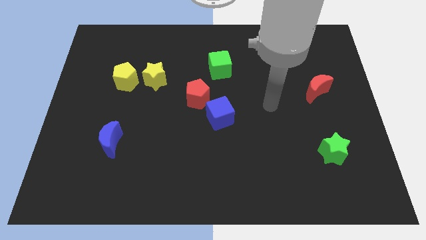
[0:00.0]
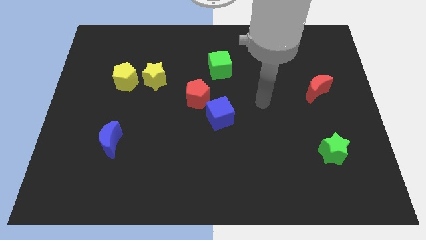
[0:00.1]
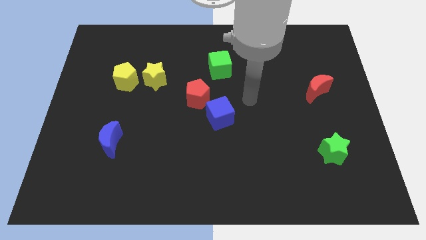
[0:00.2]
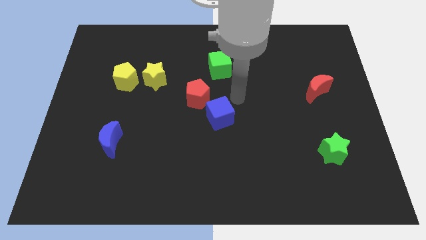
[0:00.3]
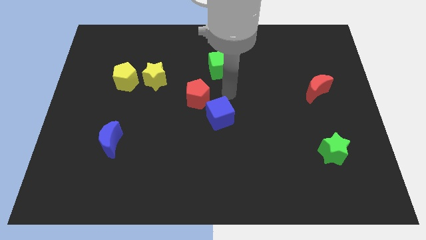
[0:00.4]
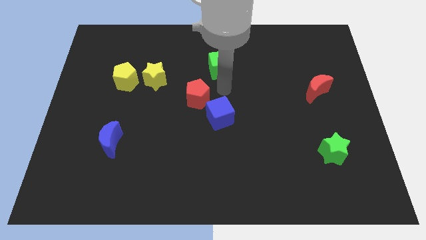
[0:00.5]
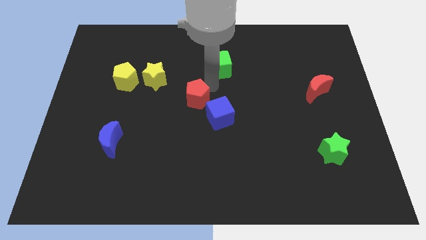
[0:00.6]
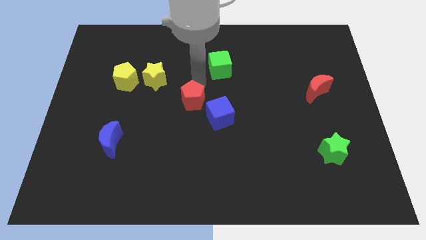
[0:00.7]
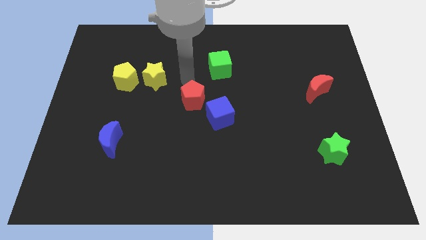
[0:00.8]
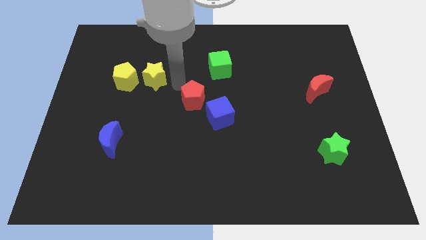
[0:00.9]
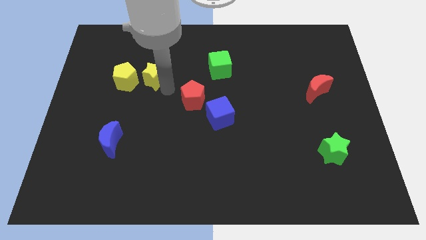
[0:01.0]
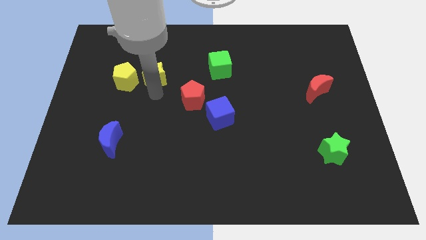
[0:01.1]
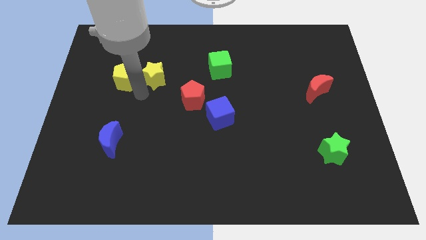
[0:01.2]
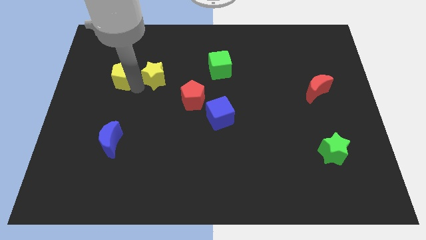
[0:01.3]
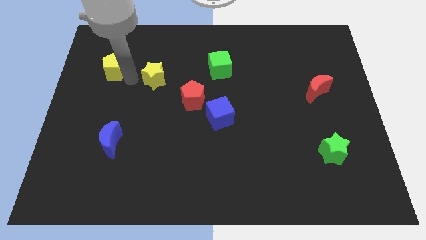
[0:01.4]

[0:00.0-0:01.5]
pull the yellow star apart from the yellow pentagon

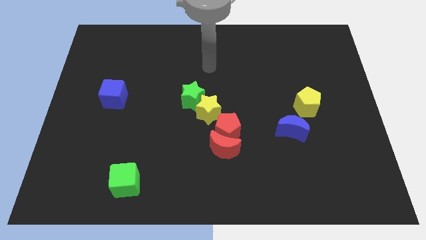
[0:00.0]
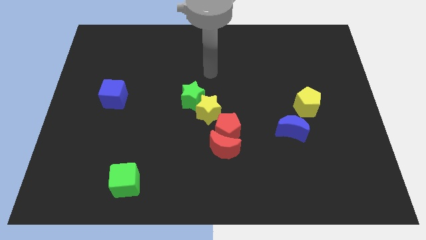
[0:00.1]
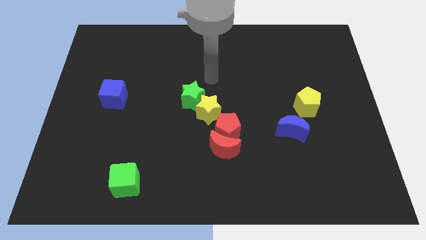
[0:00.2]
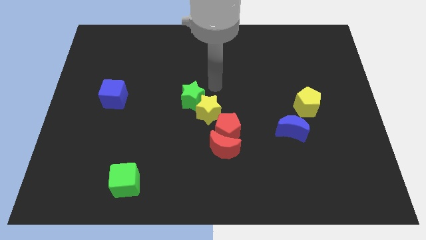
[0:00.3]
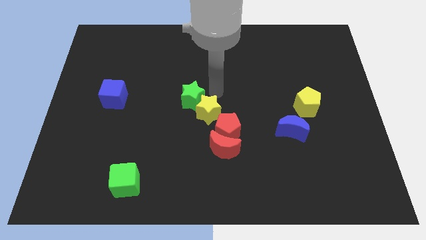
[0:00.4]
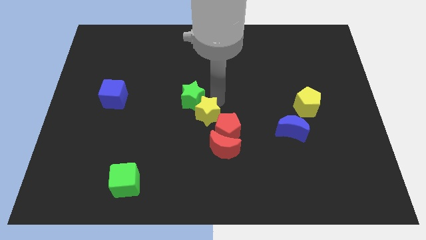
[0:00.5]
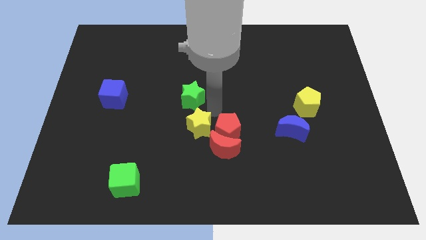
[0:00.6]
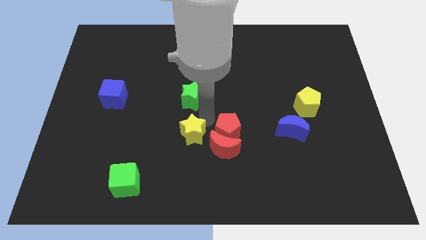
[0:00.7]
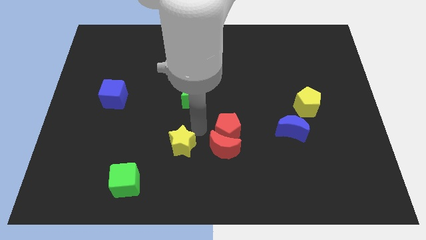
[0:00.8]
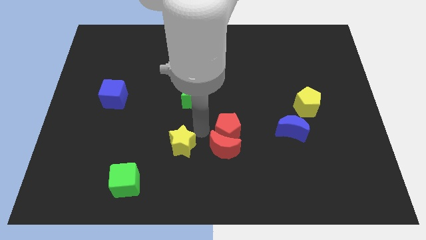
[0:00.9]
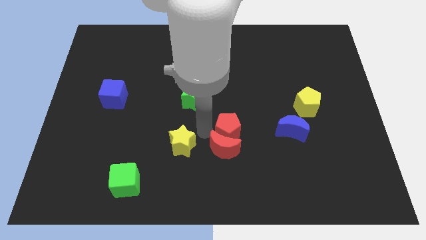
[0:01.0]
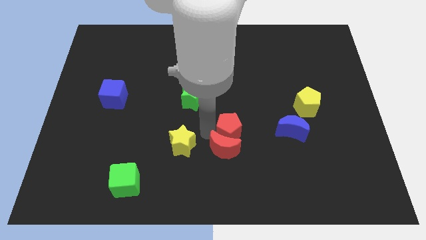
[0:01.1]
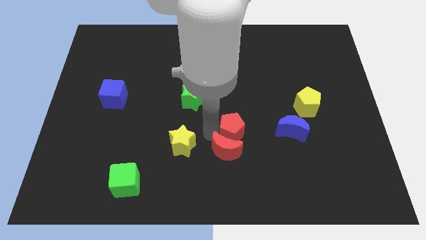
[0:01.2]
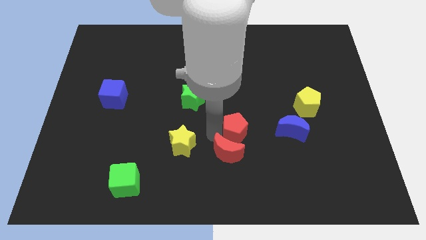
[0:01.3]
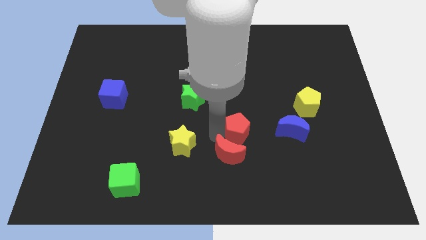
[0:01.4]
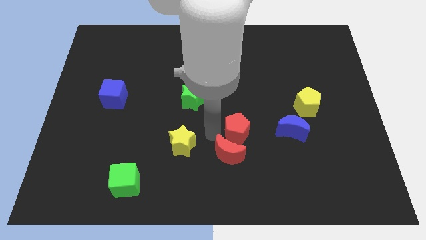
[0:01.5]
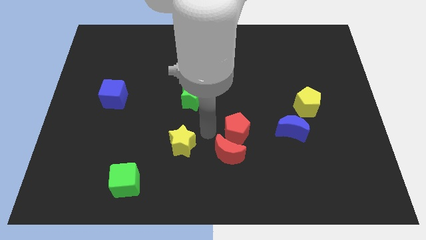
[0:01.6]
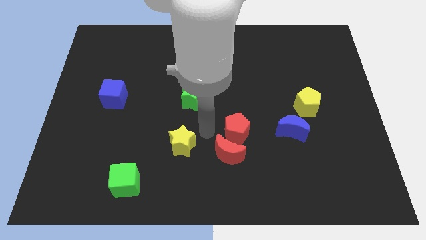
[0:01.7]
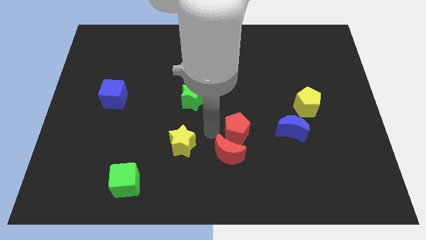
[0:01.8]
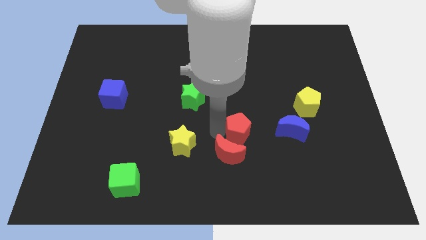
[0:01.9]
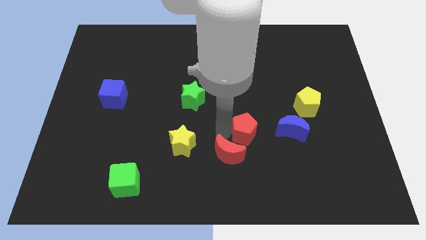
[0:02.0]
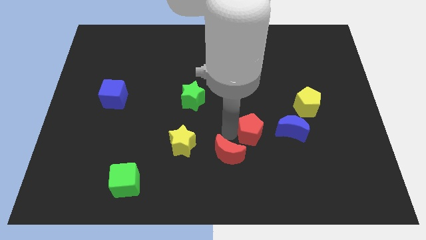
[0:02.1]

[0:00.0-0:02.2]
separate the red pentagon from the red moon and yellow star

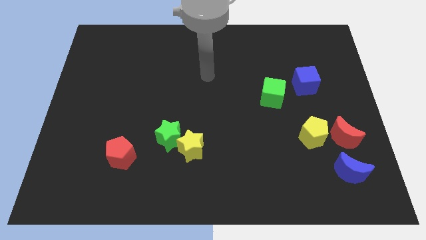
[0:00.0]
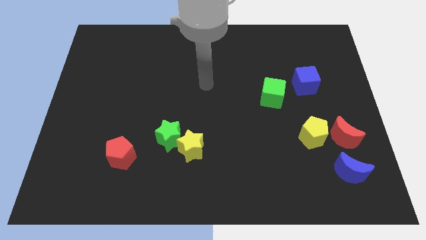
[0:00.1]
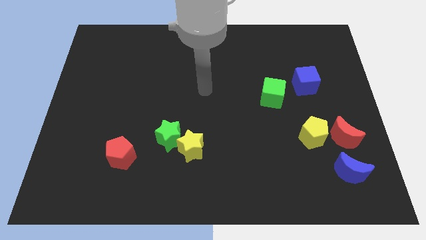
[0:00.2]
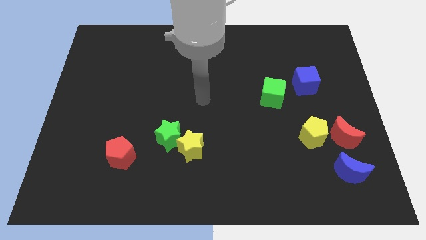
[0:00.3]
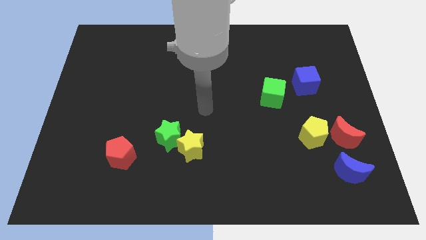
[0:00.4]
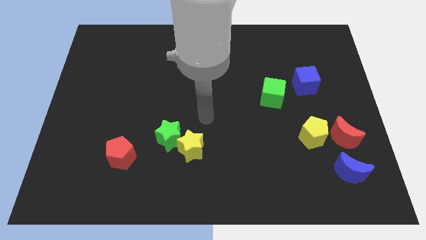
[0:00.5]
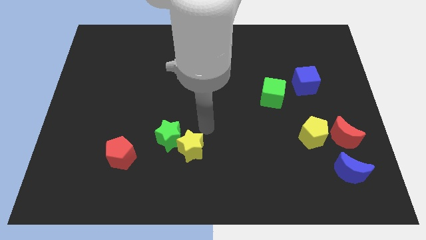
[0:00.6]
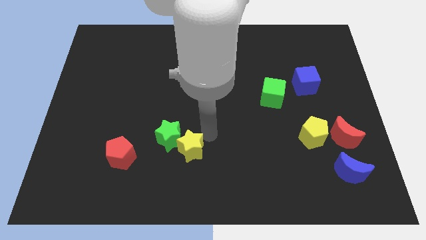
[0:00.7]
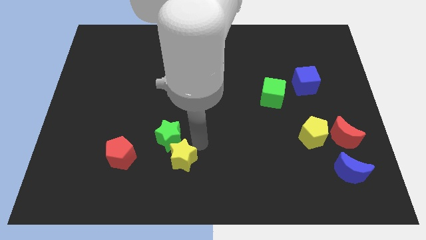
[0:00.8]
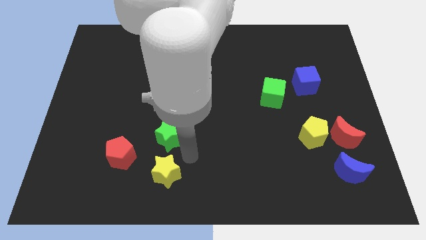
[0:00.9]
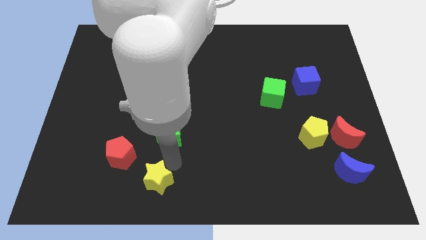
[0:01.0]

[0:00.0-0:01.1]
separate the green star from the yellow star

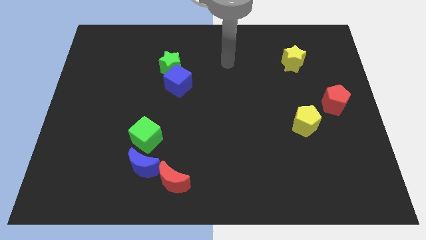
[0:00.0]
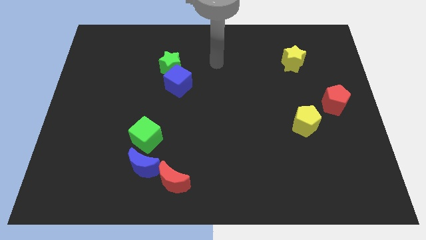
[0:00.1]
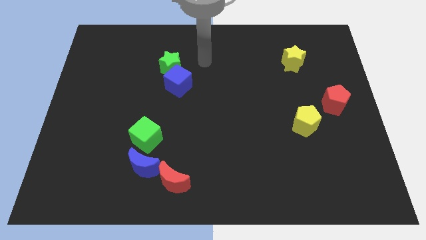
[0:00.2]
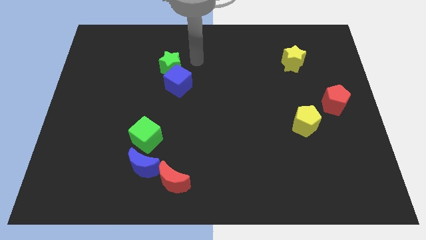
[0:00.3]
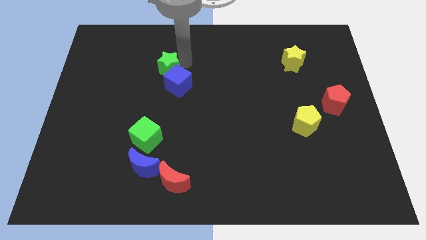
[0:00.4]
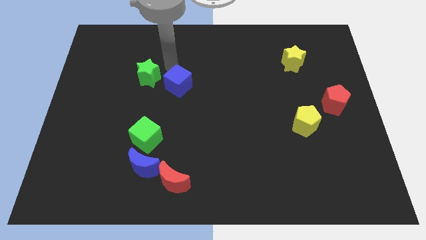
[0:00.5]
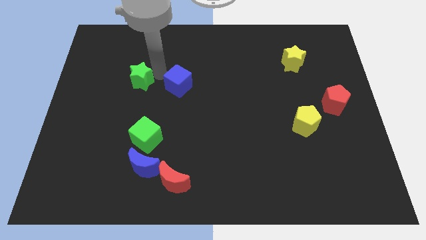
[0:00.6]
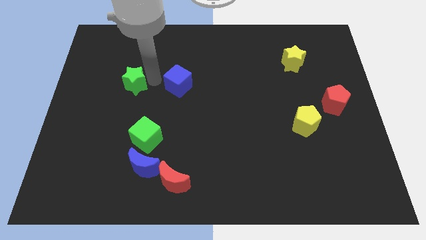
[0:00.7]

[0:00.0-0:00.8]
pull the blue cube apart from the green star

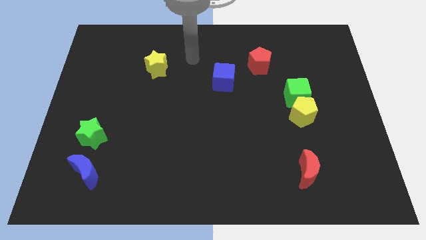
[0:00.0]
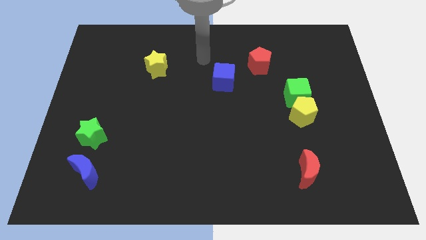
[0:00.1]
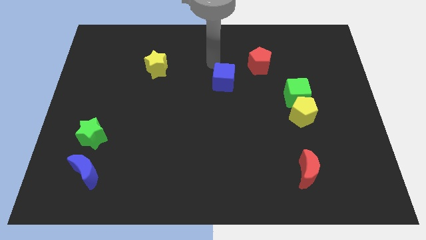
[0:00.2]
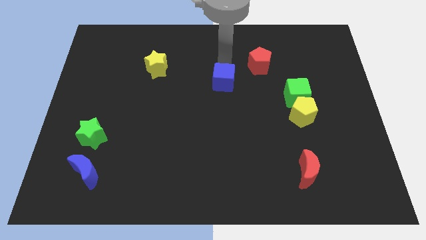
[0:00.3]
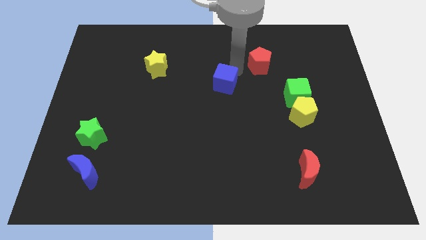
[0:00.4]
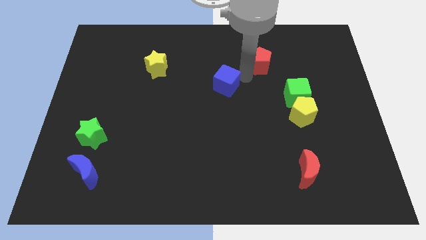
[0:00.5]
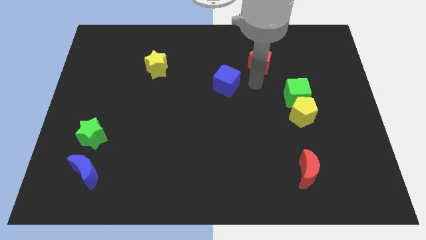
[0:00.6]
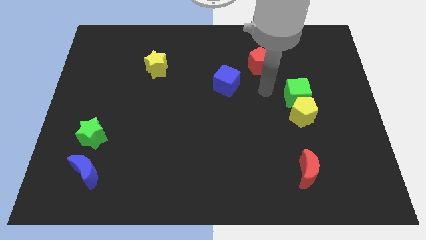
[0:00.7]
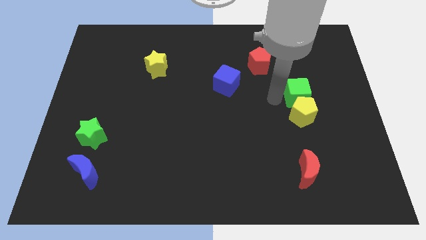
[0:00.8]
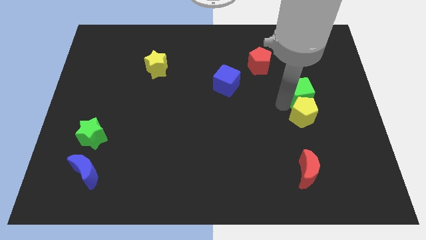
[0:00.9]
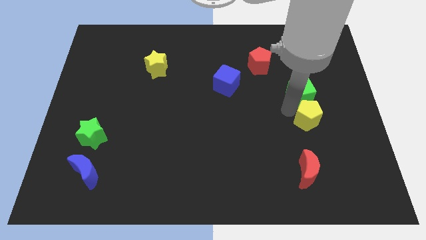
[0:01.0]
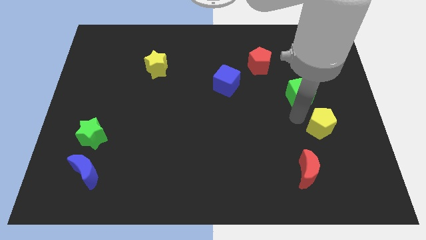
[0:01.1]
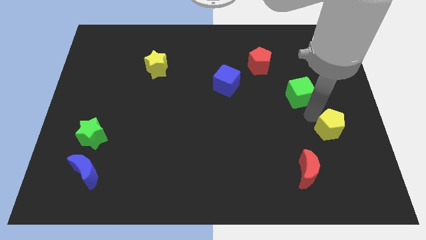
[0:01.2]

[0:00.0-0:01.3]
separate the green cube from the yellow pentagon

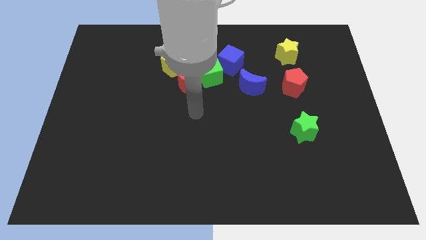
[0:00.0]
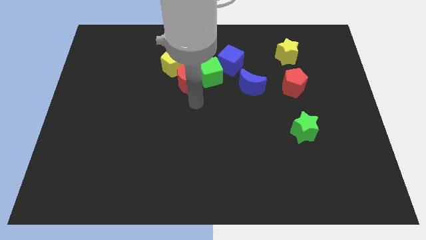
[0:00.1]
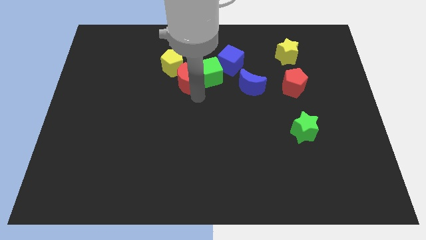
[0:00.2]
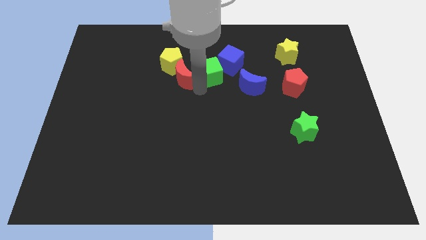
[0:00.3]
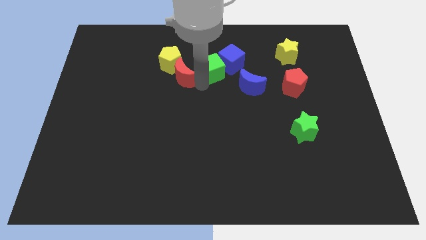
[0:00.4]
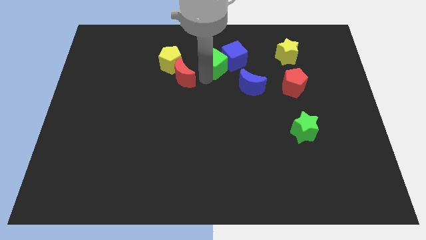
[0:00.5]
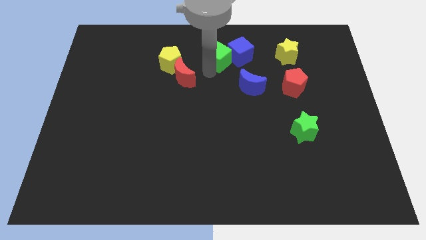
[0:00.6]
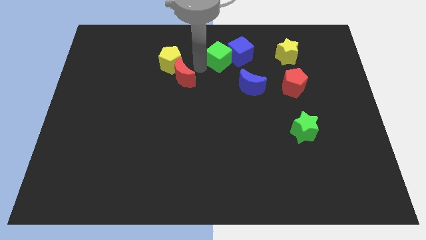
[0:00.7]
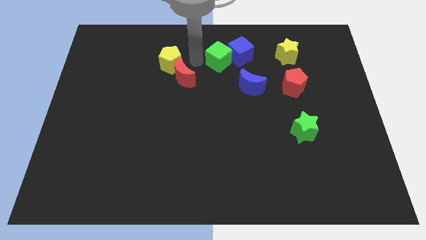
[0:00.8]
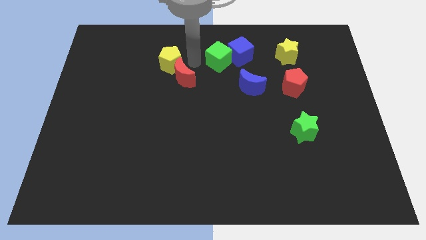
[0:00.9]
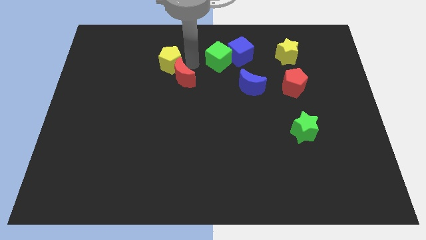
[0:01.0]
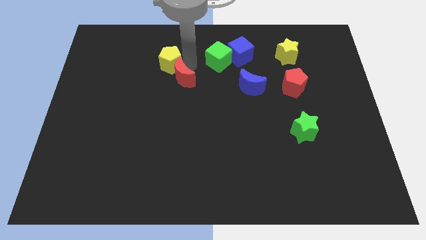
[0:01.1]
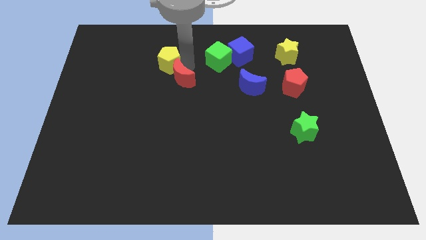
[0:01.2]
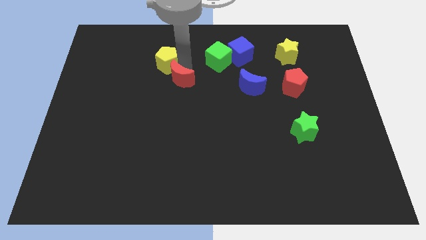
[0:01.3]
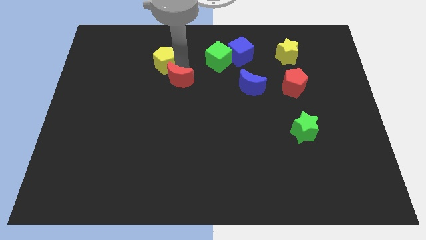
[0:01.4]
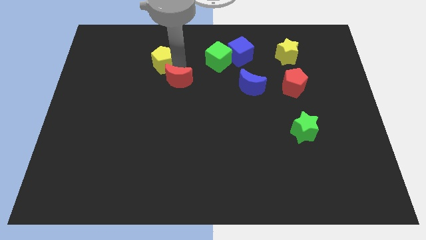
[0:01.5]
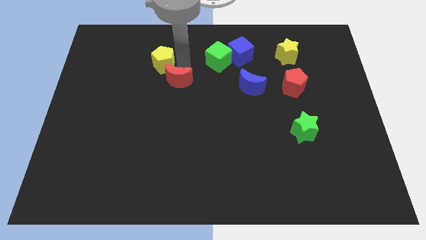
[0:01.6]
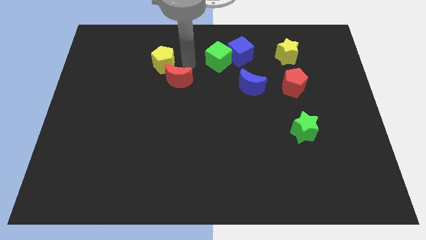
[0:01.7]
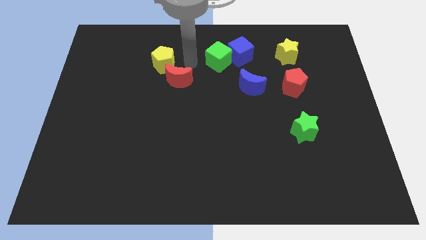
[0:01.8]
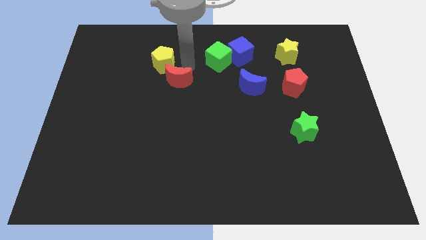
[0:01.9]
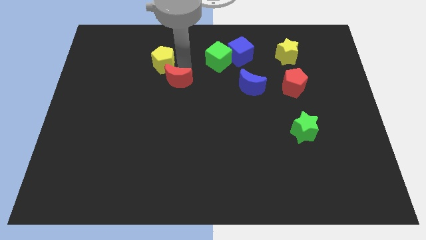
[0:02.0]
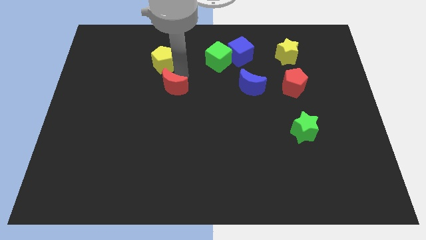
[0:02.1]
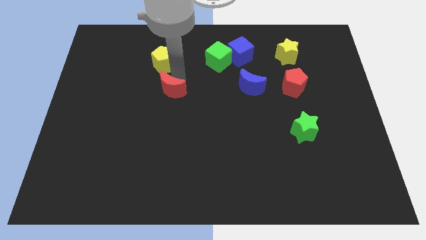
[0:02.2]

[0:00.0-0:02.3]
separate the red moon from the yellow pentagon and green cube
